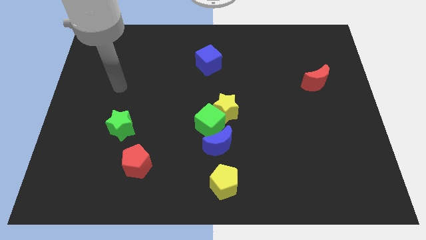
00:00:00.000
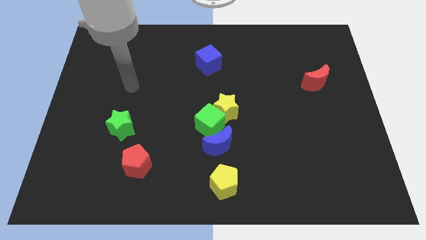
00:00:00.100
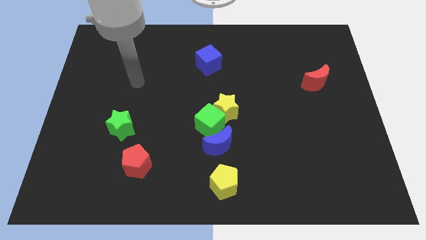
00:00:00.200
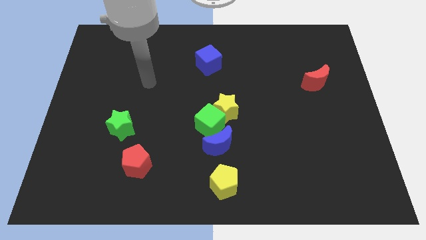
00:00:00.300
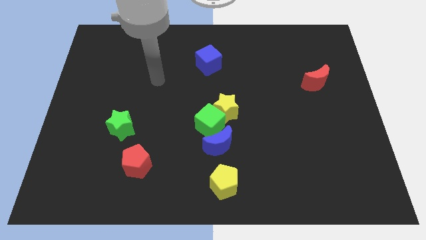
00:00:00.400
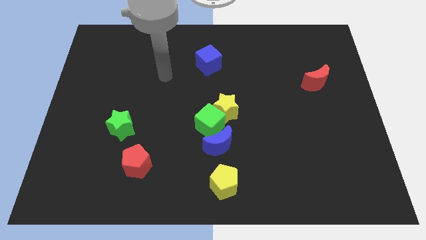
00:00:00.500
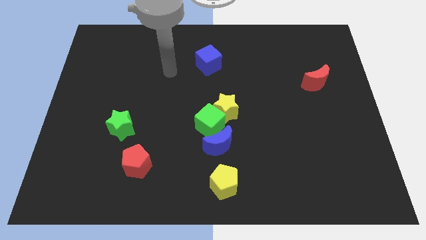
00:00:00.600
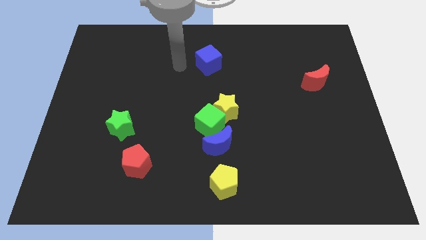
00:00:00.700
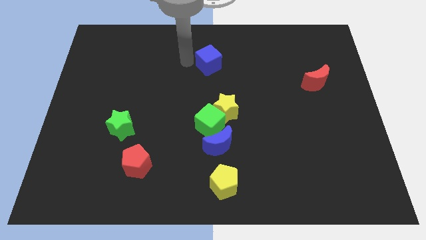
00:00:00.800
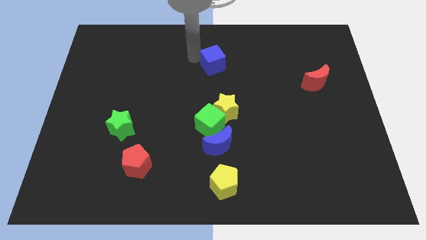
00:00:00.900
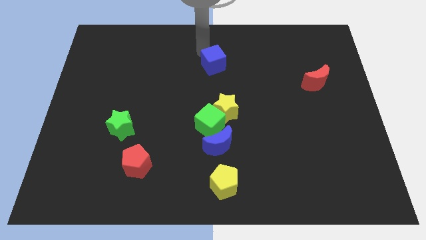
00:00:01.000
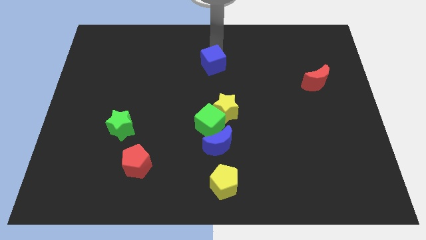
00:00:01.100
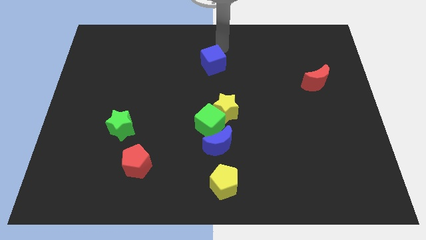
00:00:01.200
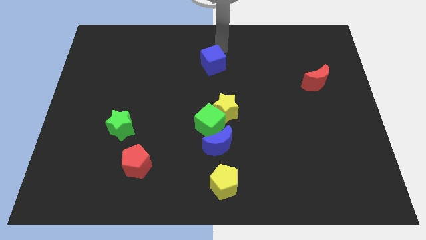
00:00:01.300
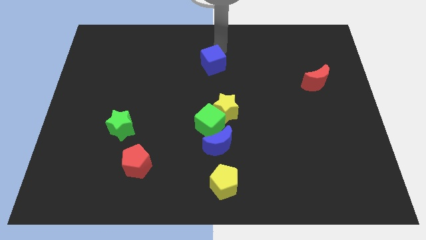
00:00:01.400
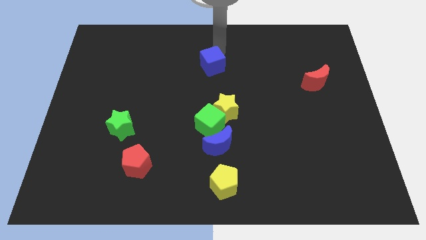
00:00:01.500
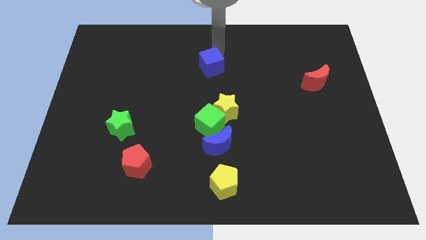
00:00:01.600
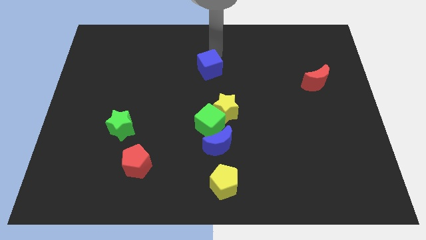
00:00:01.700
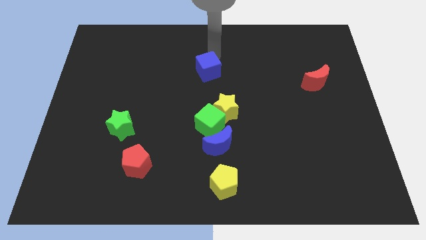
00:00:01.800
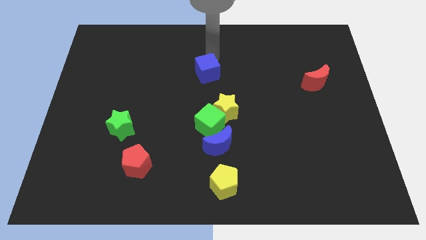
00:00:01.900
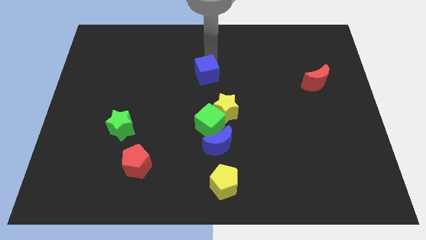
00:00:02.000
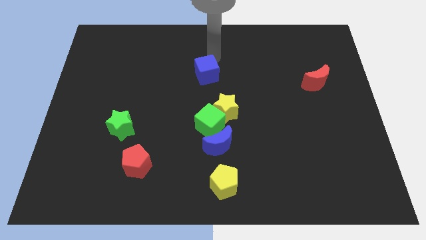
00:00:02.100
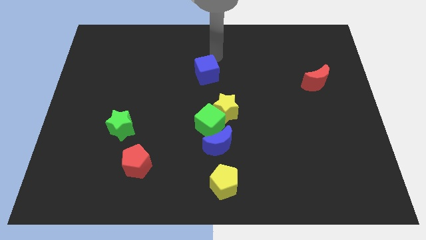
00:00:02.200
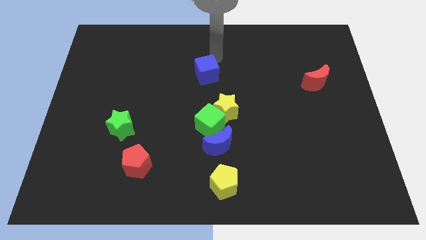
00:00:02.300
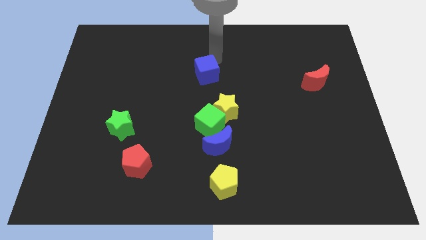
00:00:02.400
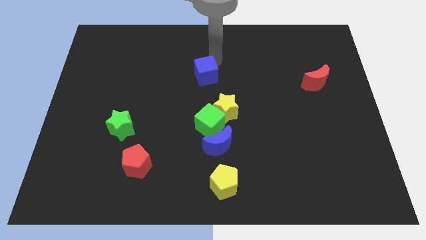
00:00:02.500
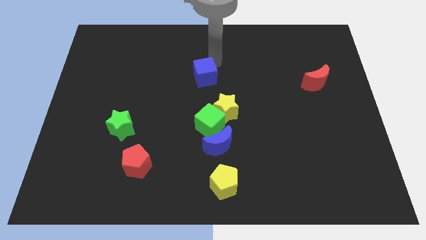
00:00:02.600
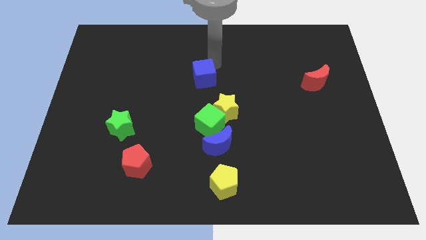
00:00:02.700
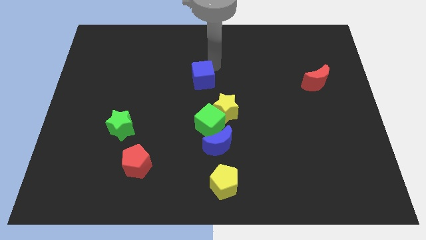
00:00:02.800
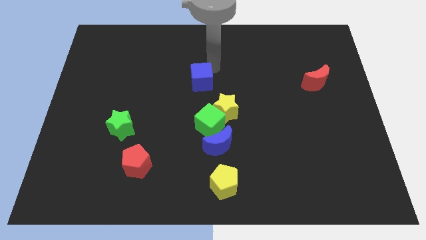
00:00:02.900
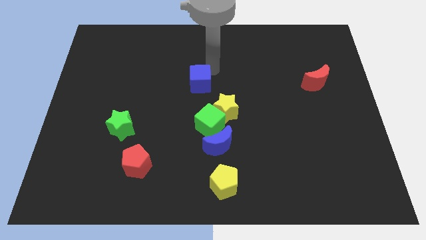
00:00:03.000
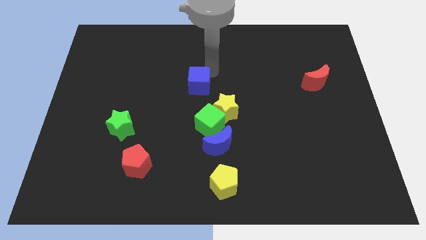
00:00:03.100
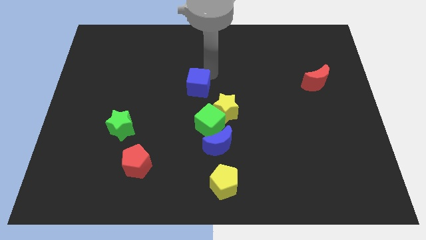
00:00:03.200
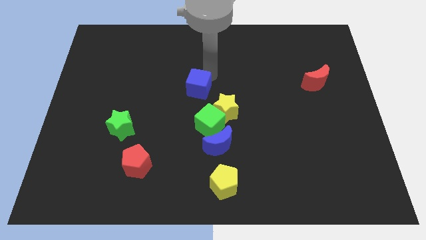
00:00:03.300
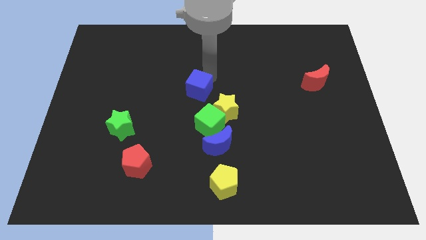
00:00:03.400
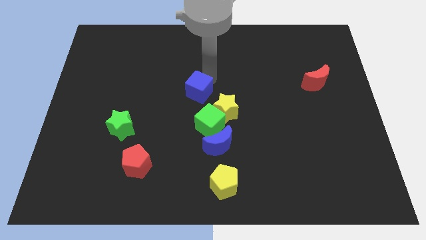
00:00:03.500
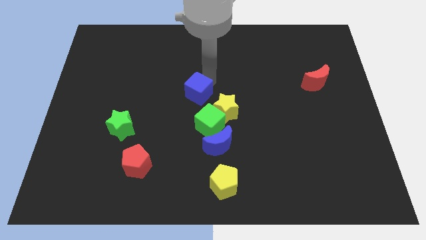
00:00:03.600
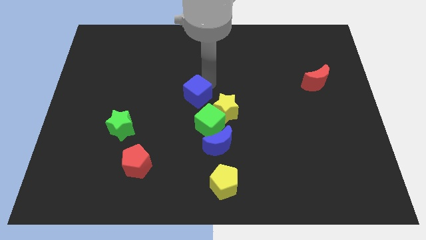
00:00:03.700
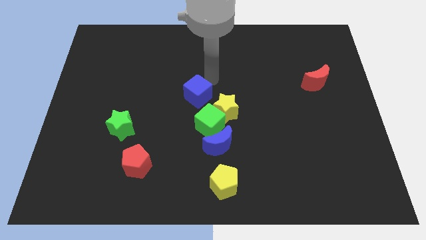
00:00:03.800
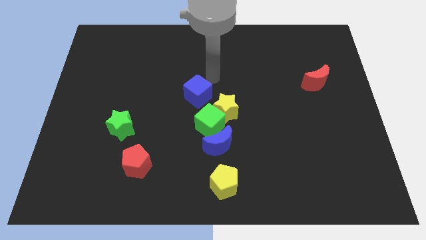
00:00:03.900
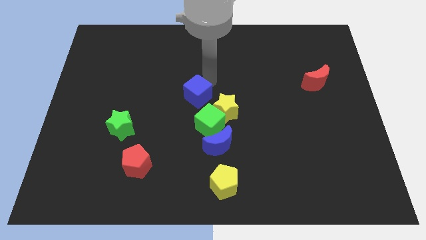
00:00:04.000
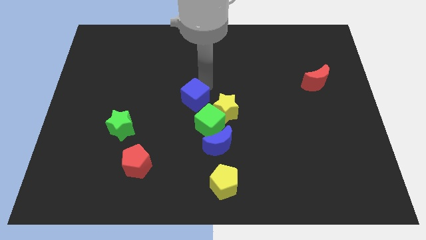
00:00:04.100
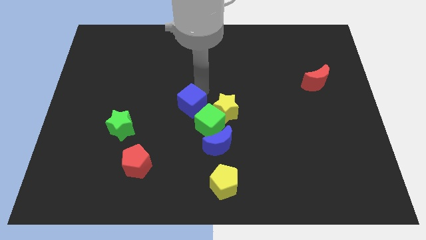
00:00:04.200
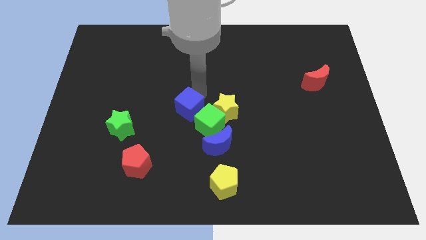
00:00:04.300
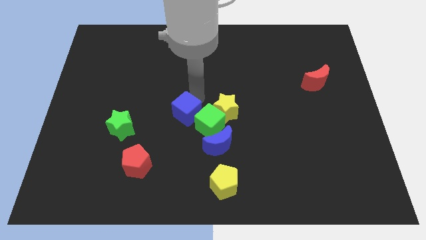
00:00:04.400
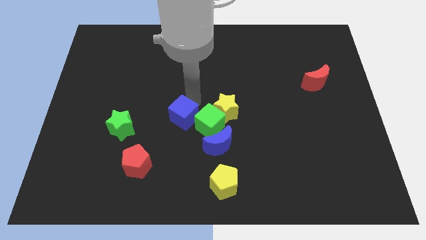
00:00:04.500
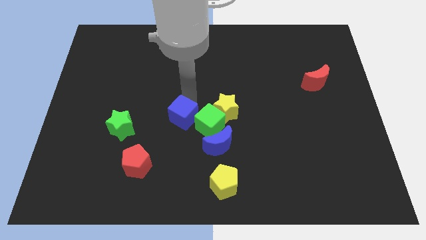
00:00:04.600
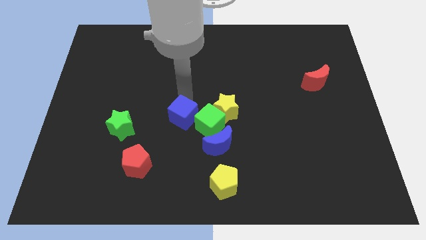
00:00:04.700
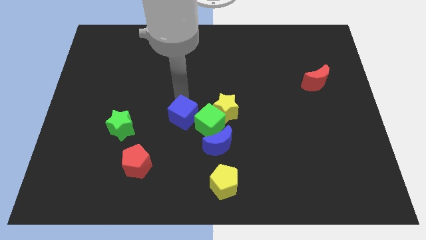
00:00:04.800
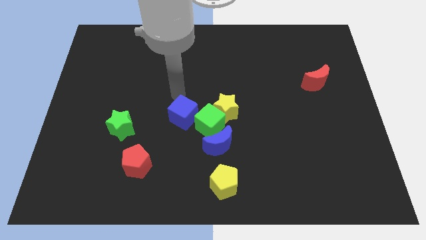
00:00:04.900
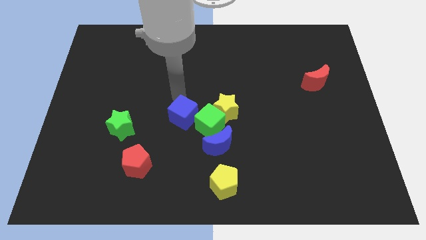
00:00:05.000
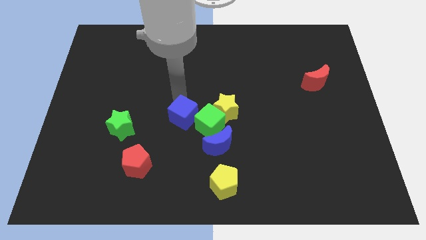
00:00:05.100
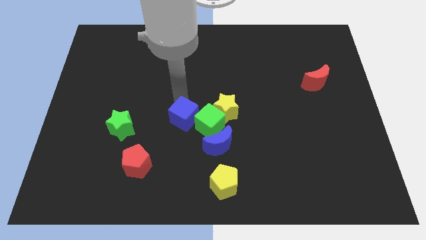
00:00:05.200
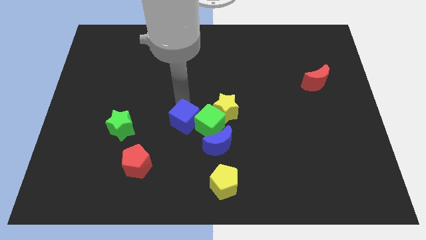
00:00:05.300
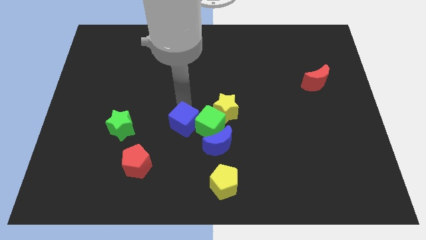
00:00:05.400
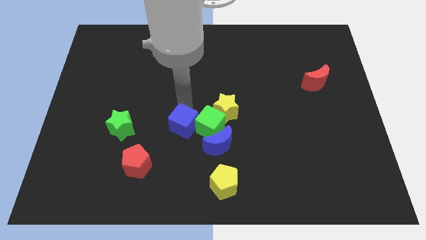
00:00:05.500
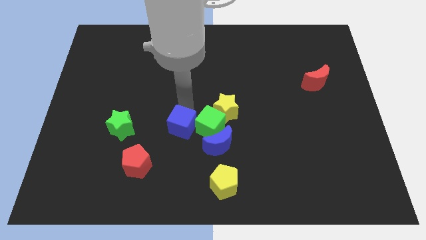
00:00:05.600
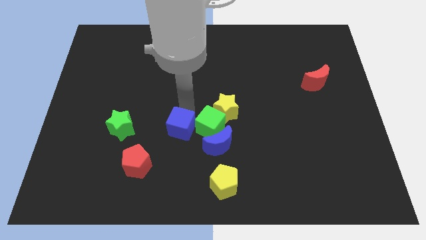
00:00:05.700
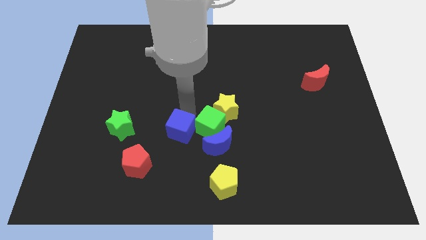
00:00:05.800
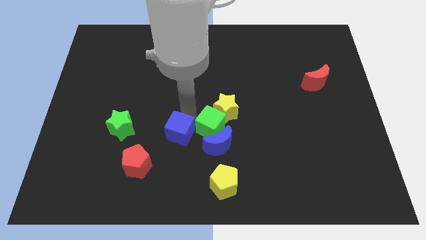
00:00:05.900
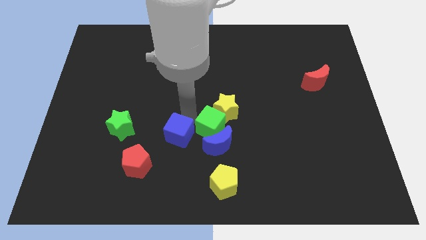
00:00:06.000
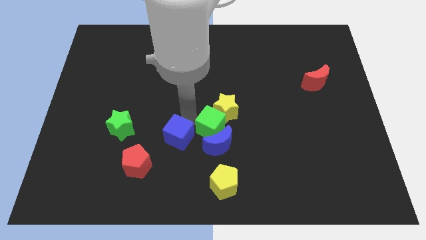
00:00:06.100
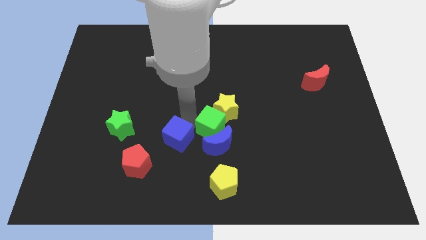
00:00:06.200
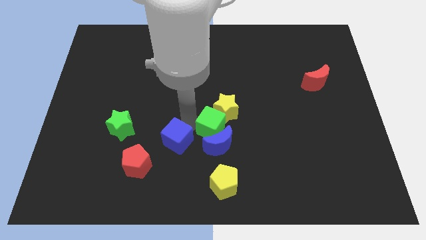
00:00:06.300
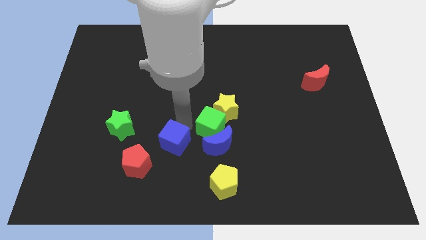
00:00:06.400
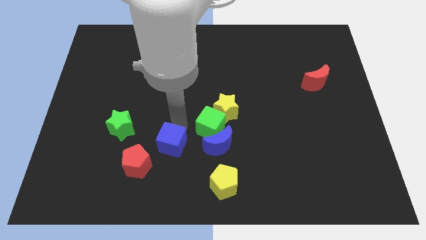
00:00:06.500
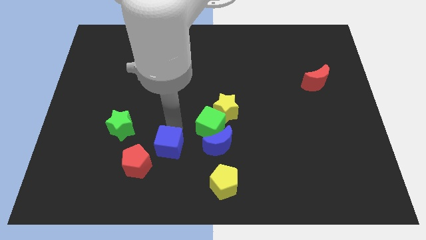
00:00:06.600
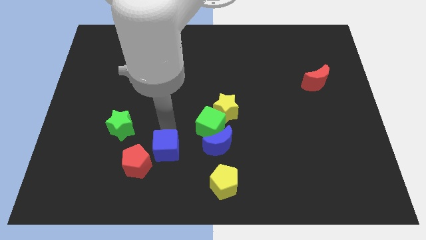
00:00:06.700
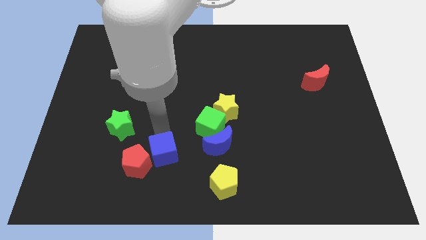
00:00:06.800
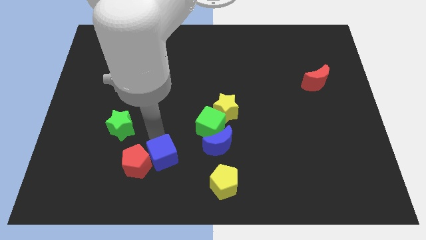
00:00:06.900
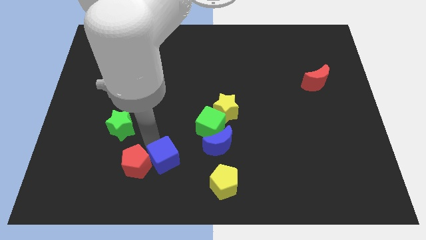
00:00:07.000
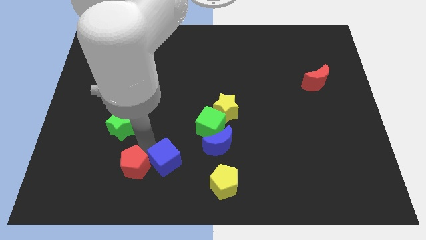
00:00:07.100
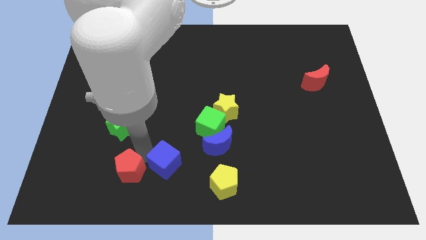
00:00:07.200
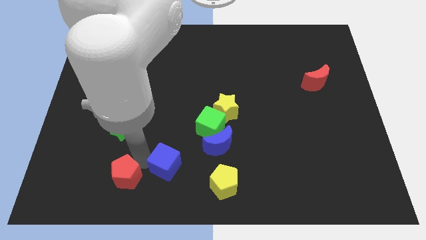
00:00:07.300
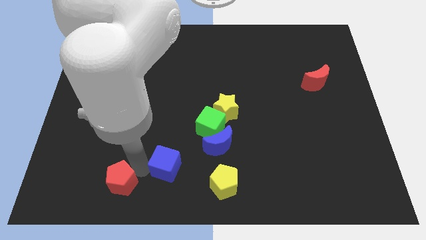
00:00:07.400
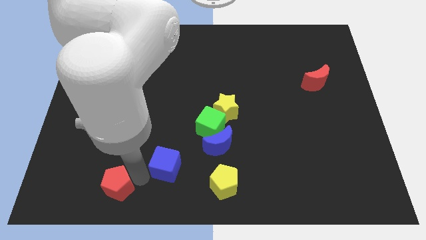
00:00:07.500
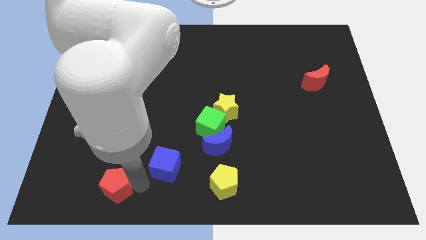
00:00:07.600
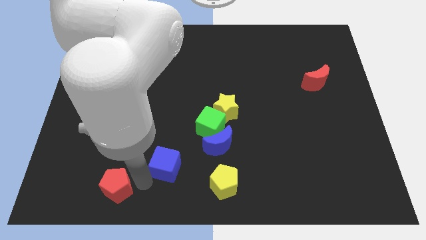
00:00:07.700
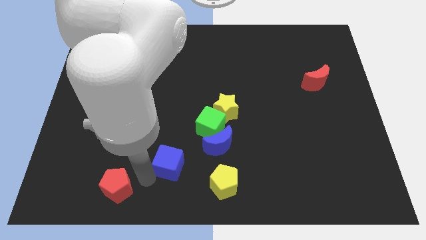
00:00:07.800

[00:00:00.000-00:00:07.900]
push the blue cube to the bottom
